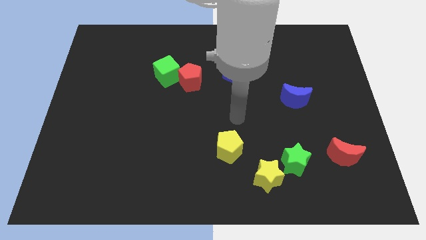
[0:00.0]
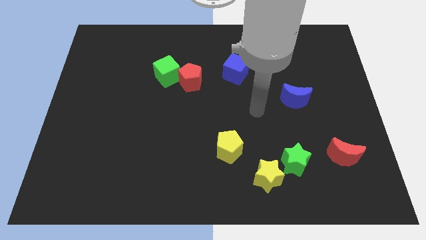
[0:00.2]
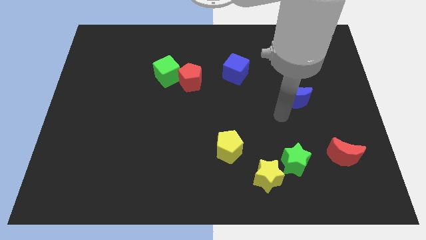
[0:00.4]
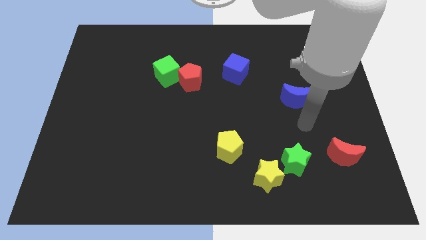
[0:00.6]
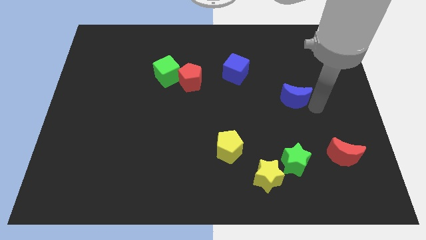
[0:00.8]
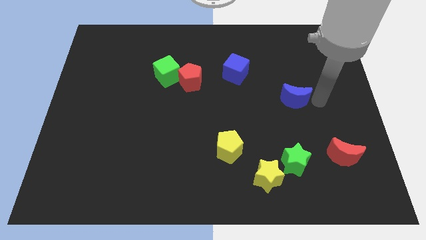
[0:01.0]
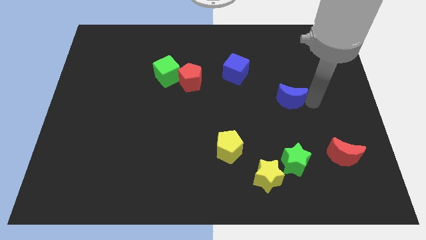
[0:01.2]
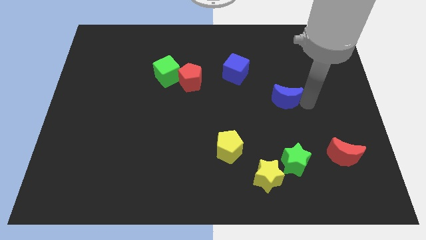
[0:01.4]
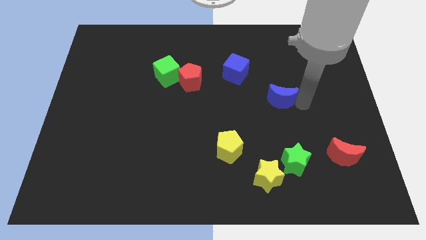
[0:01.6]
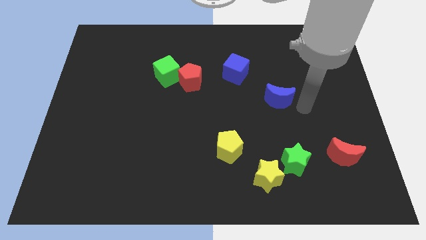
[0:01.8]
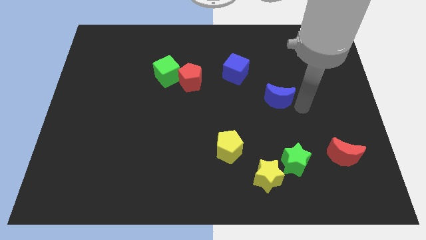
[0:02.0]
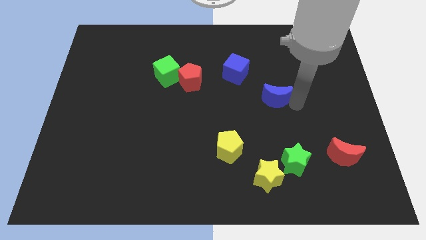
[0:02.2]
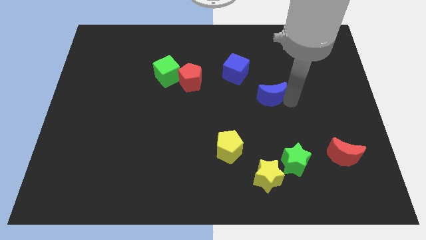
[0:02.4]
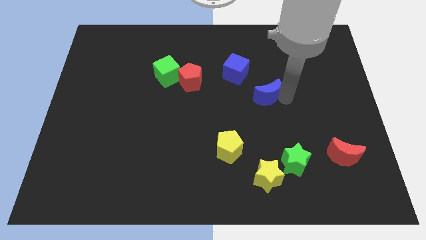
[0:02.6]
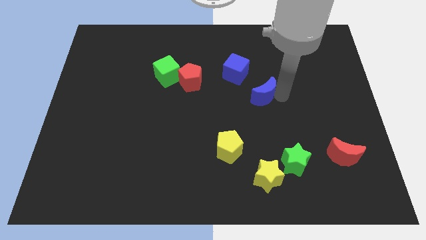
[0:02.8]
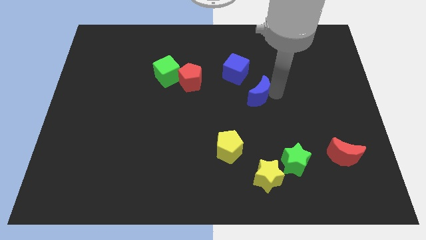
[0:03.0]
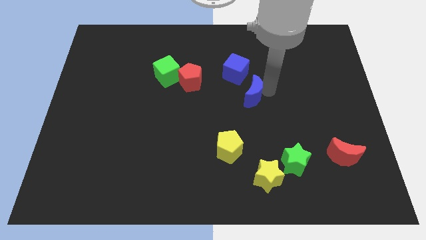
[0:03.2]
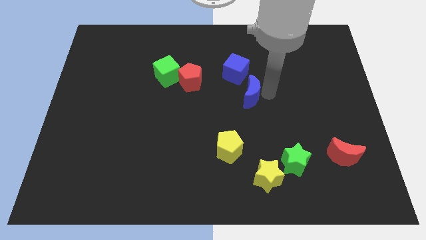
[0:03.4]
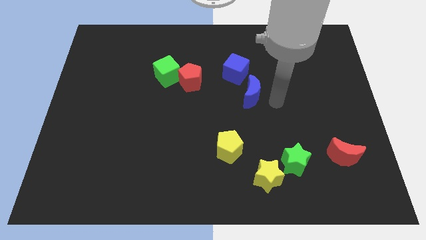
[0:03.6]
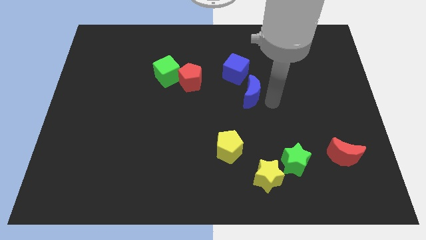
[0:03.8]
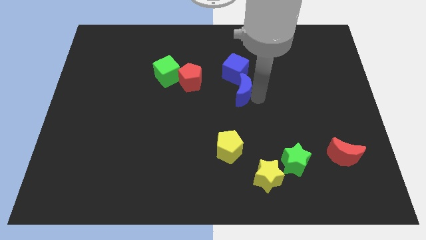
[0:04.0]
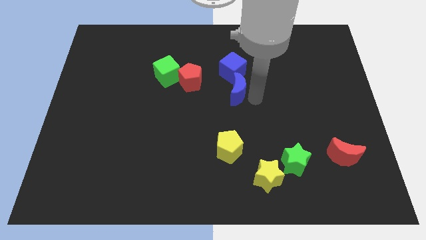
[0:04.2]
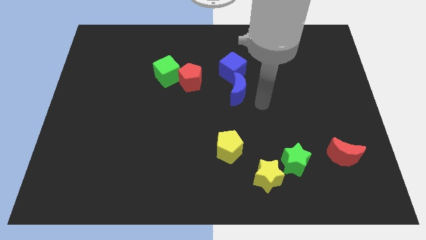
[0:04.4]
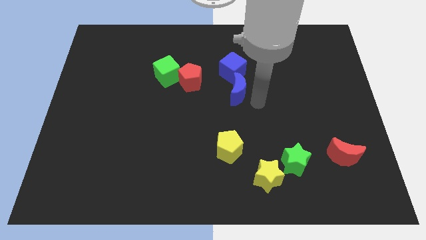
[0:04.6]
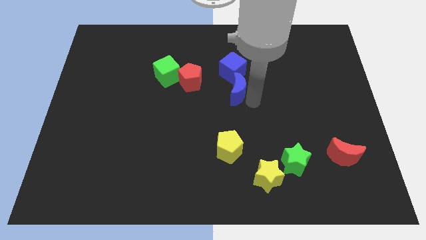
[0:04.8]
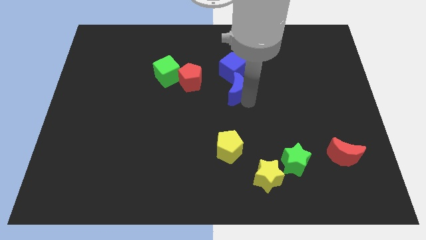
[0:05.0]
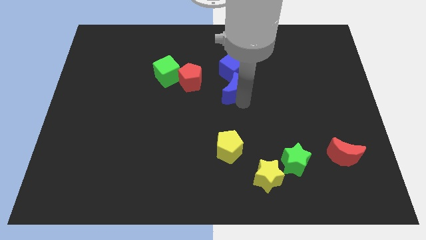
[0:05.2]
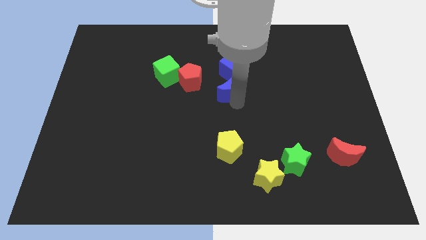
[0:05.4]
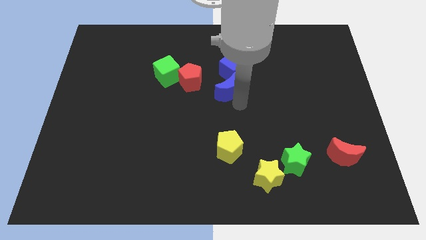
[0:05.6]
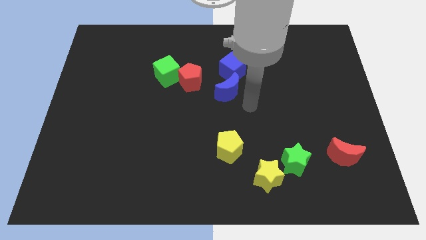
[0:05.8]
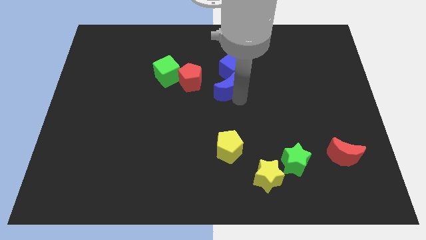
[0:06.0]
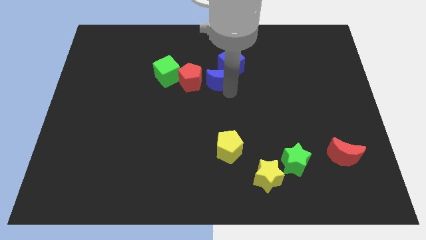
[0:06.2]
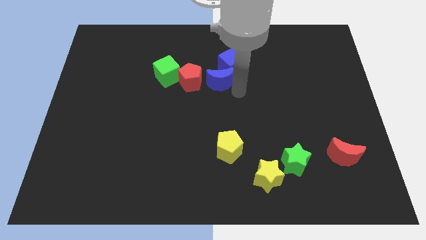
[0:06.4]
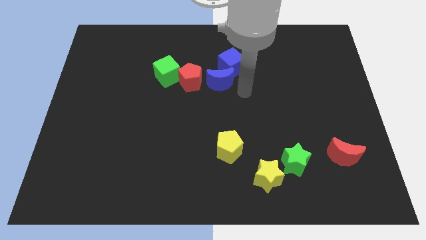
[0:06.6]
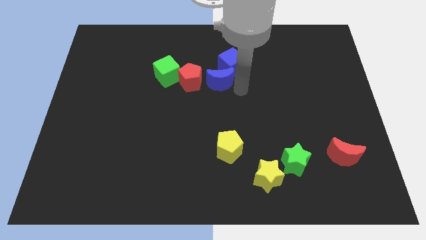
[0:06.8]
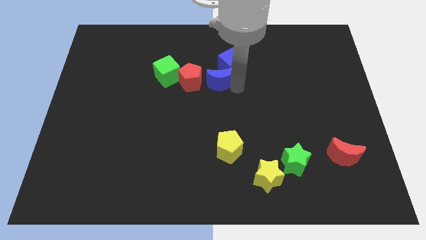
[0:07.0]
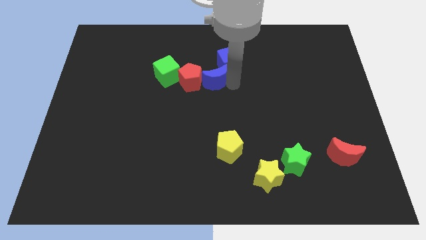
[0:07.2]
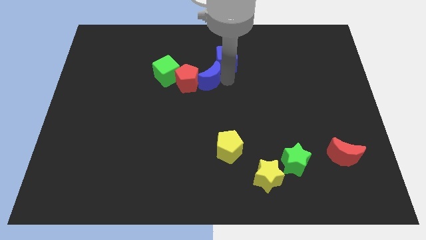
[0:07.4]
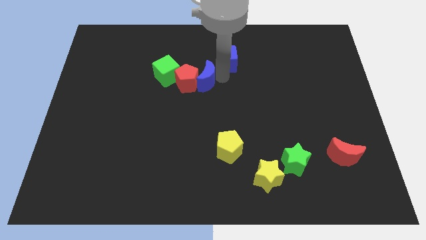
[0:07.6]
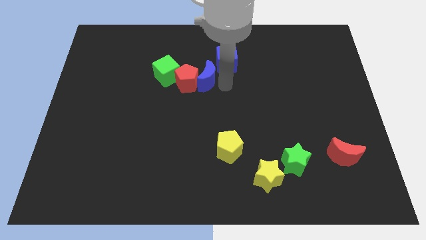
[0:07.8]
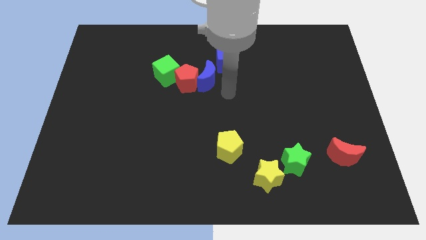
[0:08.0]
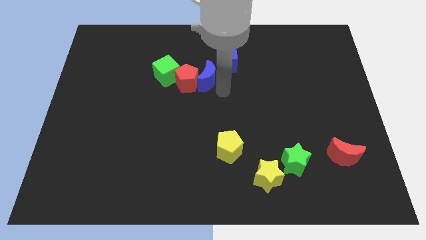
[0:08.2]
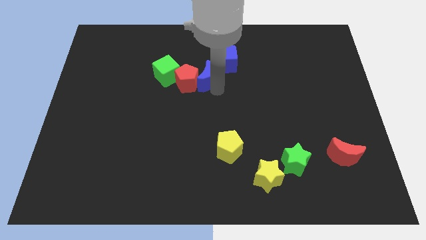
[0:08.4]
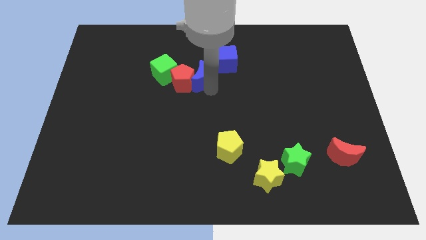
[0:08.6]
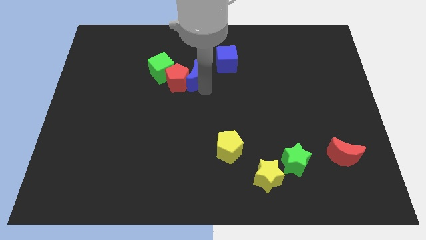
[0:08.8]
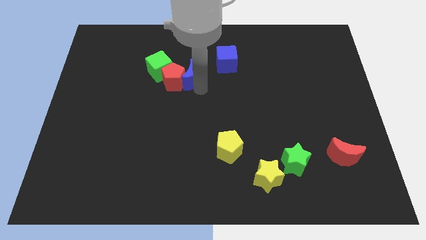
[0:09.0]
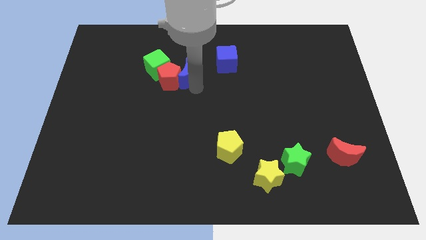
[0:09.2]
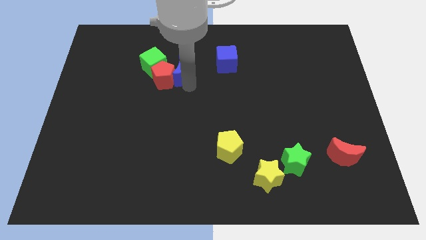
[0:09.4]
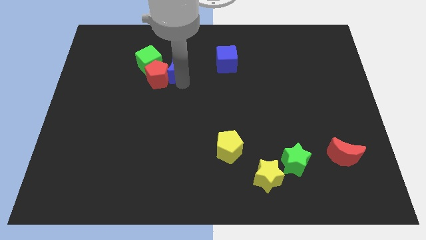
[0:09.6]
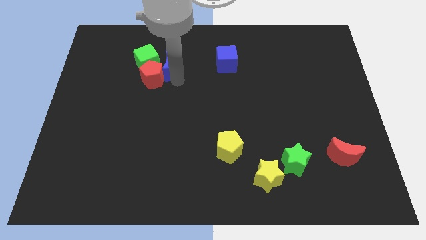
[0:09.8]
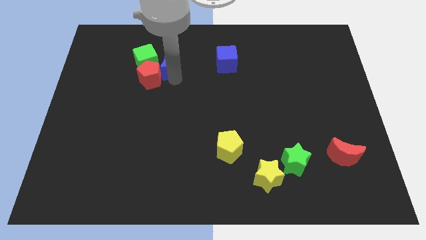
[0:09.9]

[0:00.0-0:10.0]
put the blue moon to the green cube

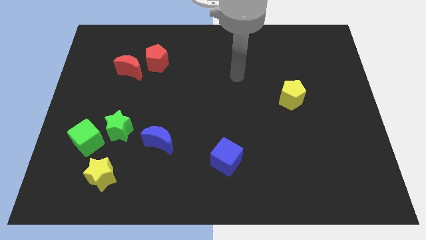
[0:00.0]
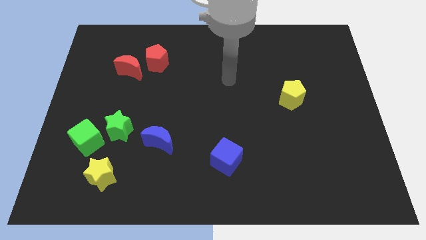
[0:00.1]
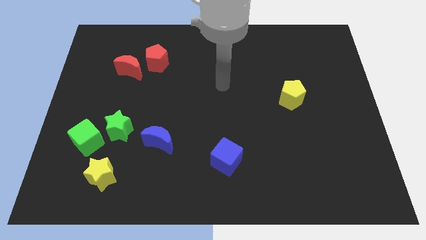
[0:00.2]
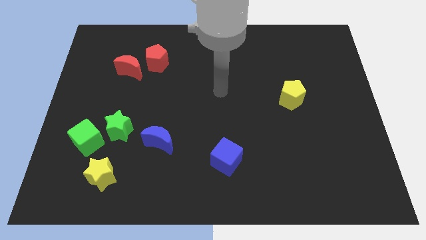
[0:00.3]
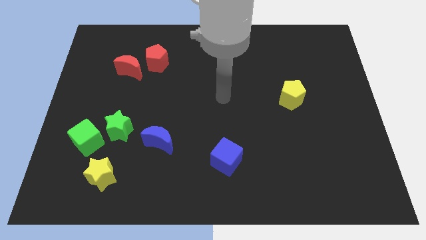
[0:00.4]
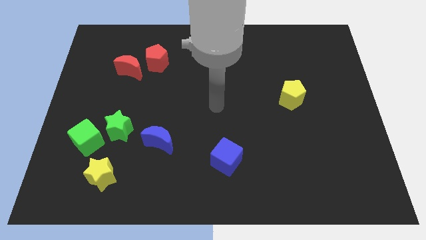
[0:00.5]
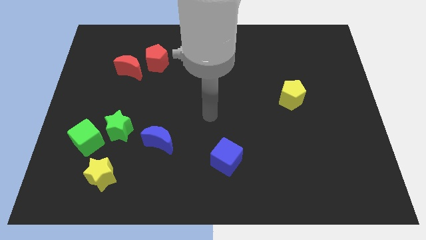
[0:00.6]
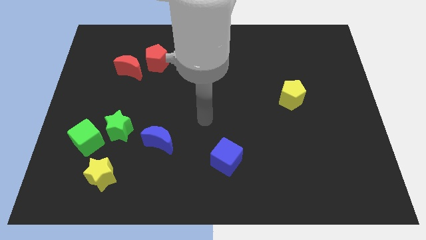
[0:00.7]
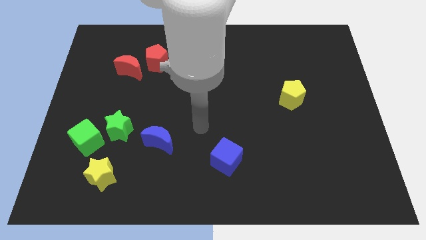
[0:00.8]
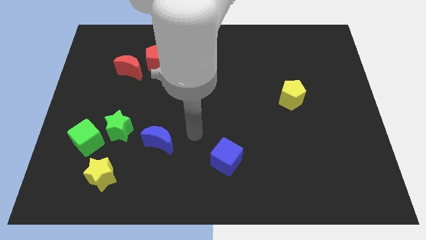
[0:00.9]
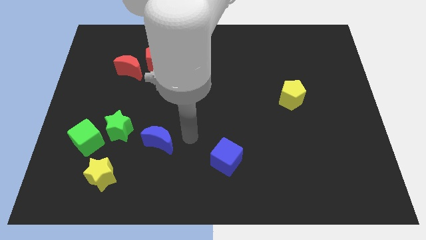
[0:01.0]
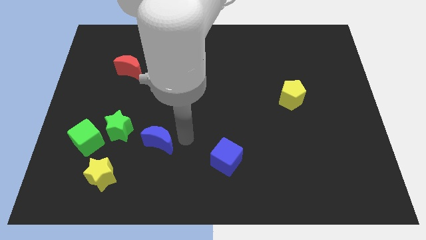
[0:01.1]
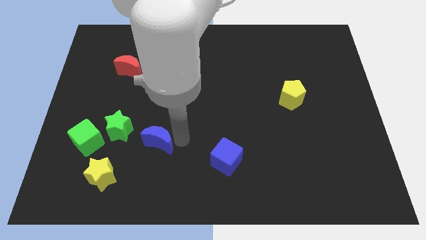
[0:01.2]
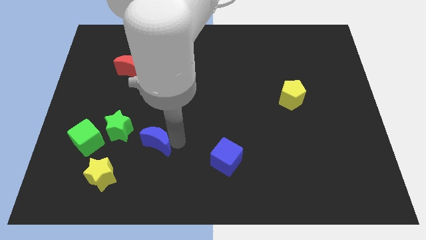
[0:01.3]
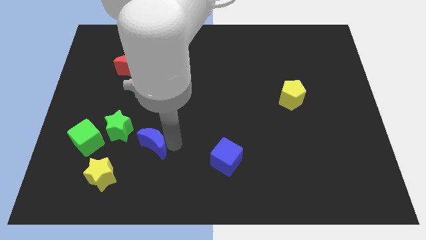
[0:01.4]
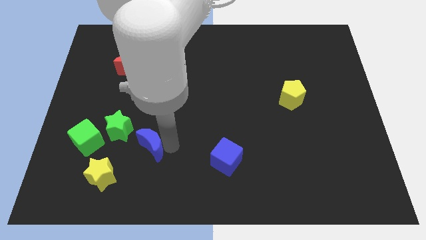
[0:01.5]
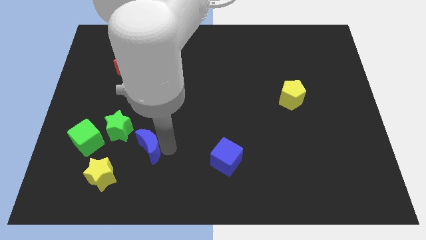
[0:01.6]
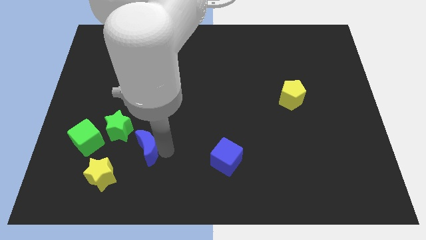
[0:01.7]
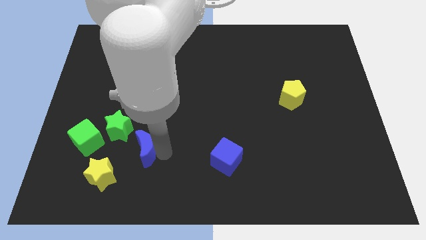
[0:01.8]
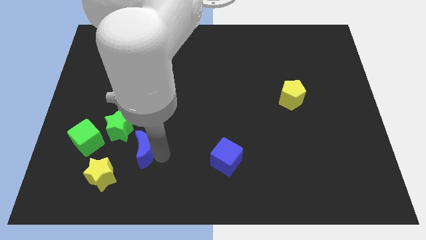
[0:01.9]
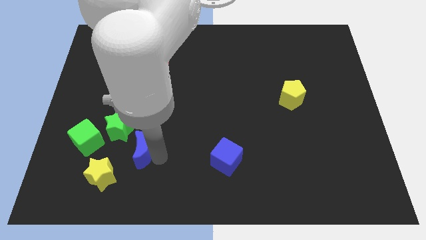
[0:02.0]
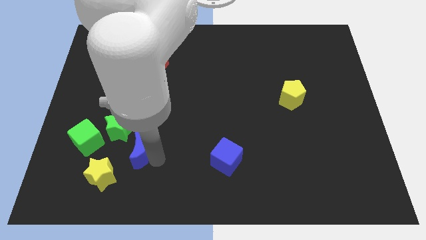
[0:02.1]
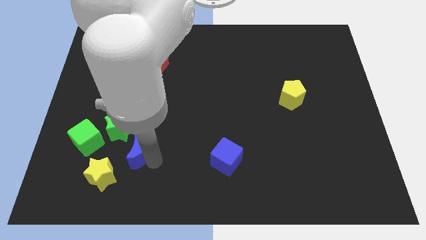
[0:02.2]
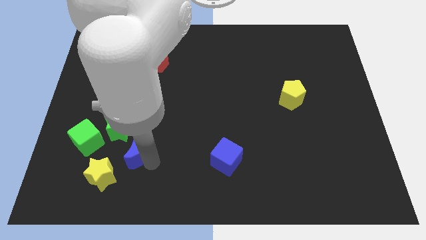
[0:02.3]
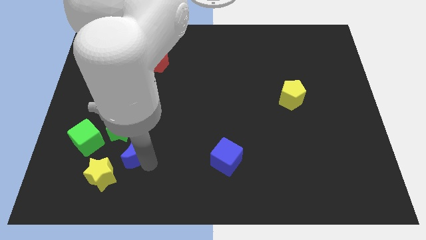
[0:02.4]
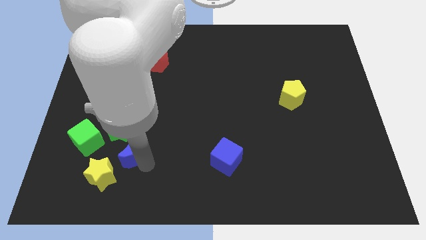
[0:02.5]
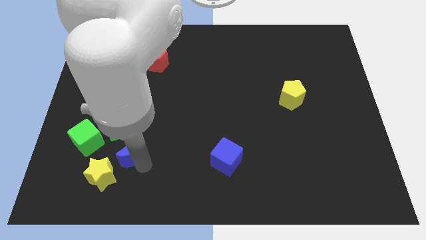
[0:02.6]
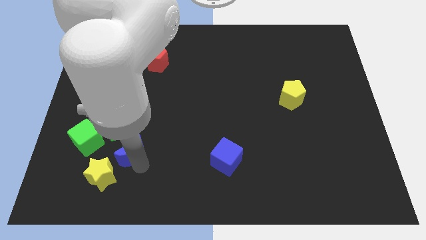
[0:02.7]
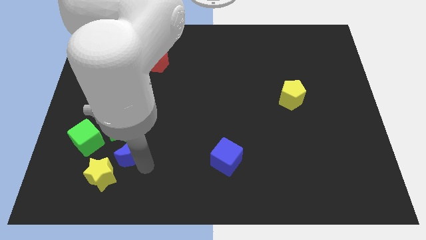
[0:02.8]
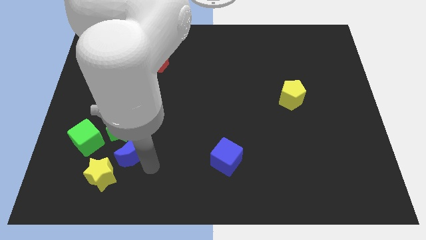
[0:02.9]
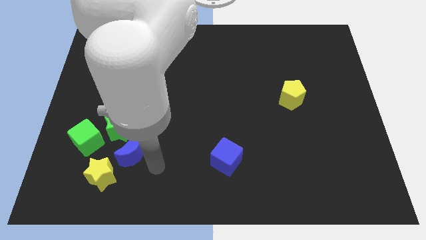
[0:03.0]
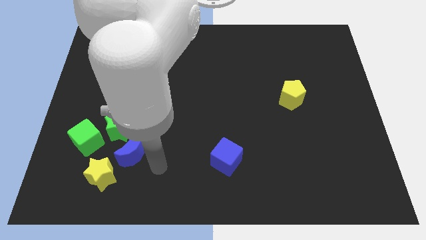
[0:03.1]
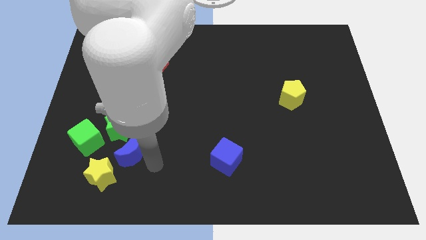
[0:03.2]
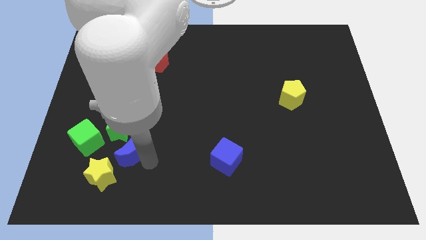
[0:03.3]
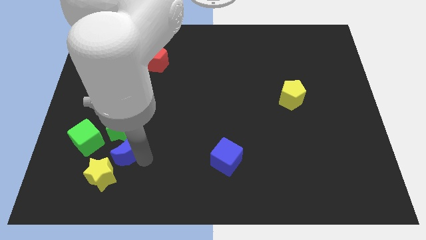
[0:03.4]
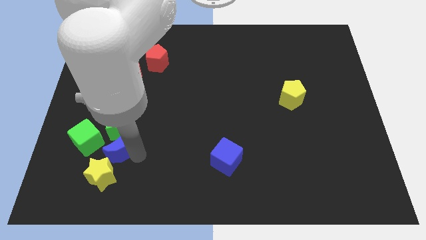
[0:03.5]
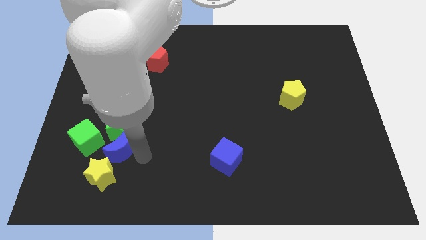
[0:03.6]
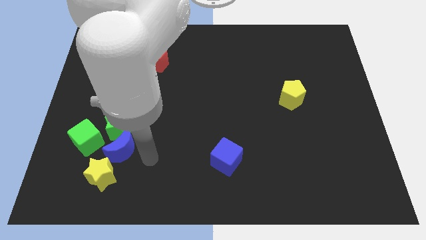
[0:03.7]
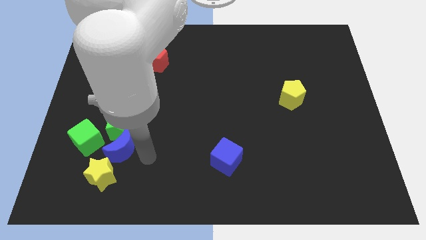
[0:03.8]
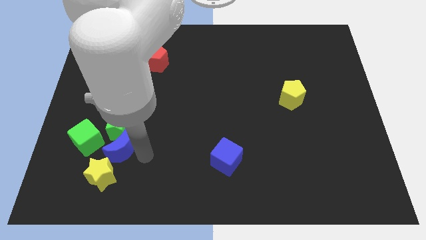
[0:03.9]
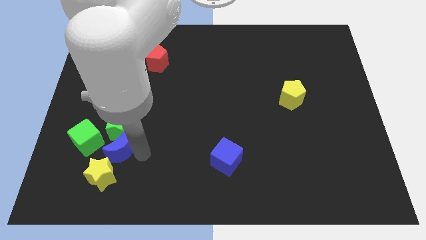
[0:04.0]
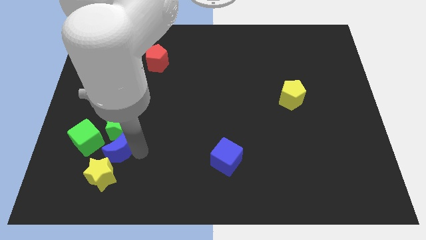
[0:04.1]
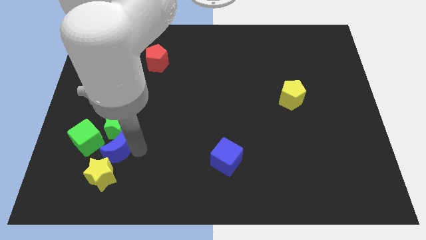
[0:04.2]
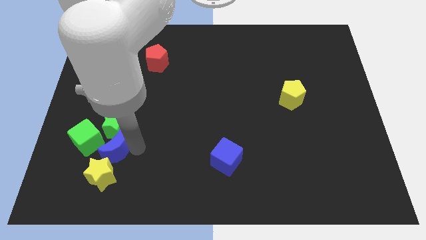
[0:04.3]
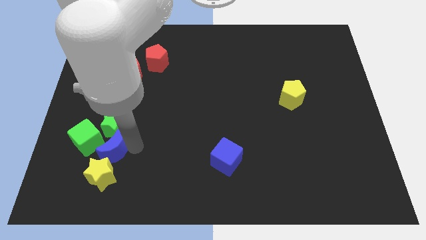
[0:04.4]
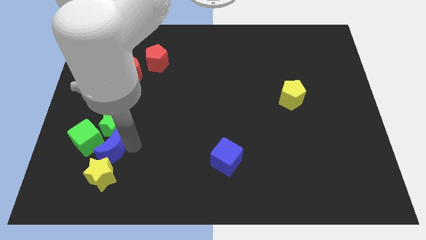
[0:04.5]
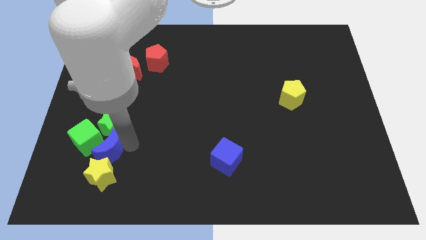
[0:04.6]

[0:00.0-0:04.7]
slide the blue moon towards the green cube
